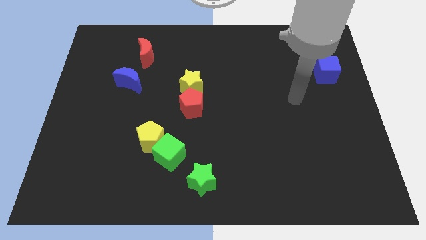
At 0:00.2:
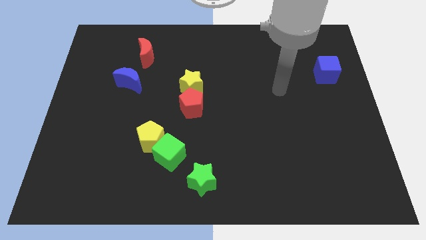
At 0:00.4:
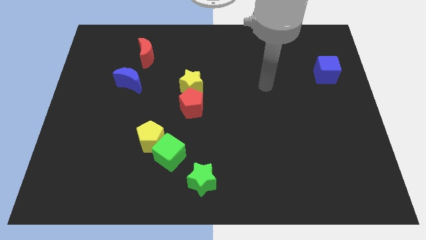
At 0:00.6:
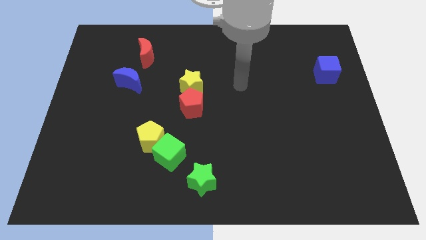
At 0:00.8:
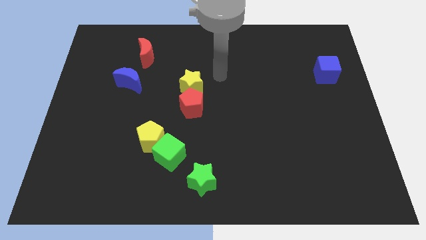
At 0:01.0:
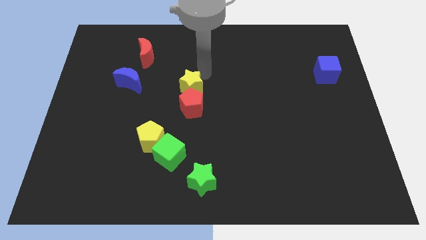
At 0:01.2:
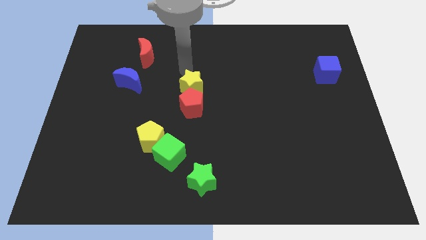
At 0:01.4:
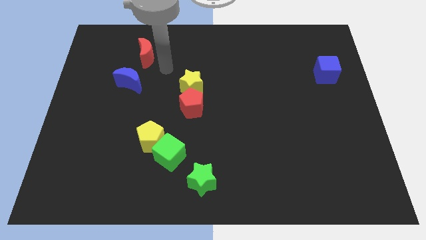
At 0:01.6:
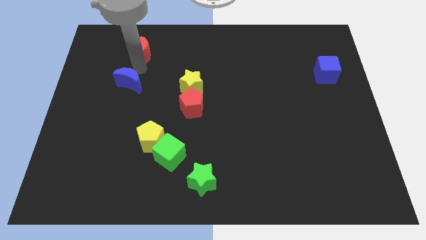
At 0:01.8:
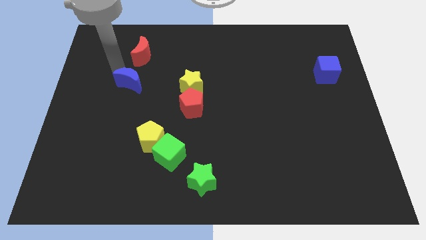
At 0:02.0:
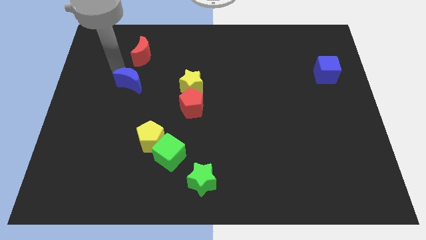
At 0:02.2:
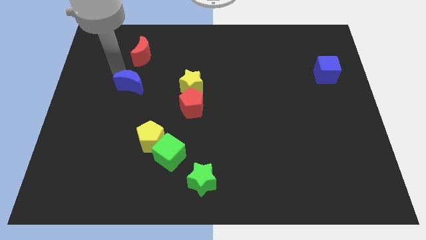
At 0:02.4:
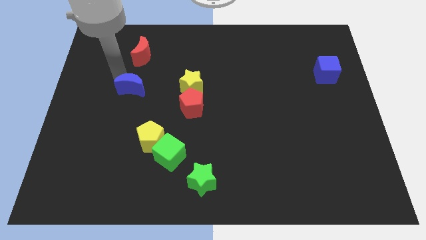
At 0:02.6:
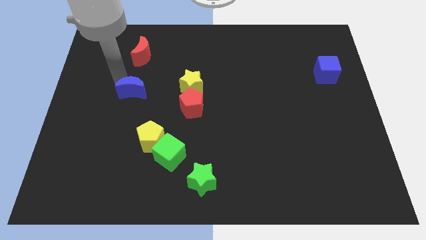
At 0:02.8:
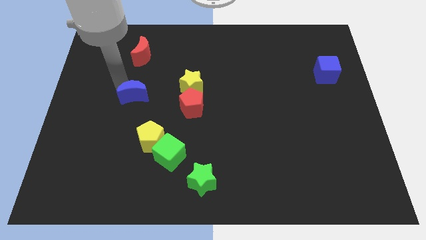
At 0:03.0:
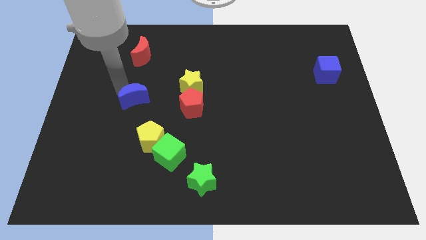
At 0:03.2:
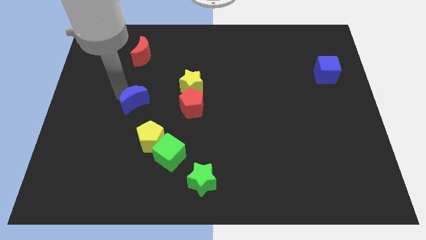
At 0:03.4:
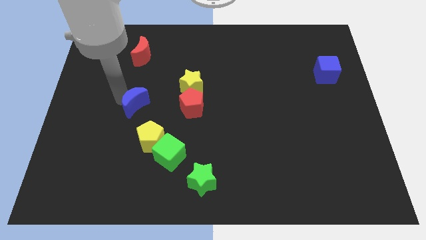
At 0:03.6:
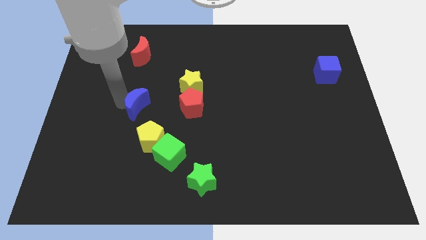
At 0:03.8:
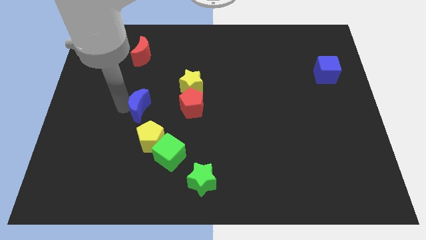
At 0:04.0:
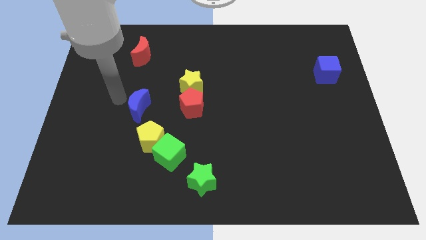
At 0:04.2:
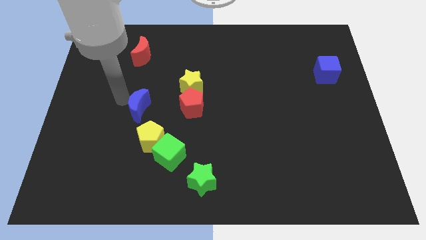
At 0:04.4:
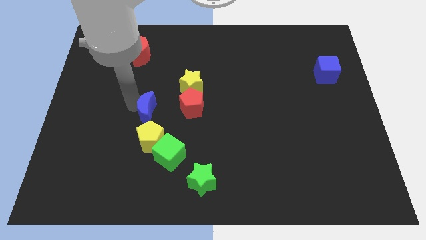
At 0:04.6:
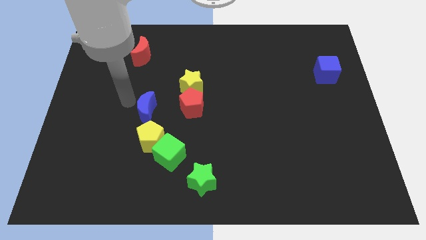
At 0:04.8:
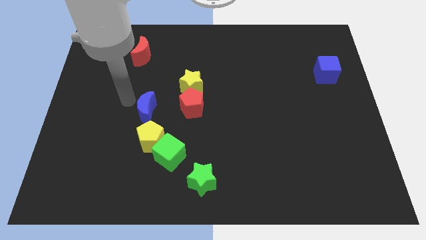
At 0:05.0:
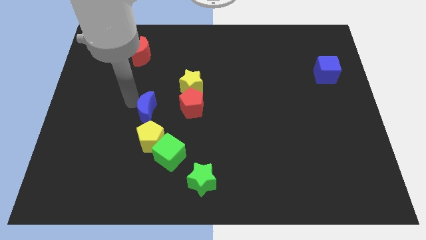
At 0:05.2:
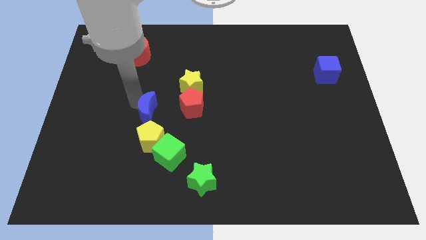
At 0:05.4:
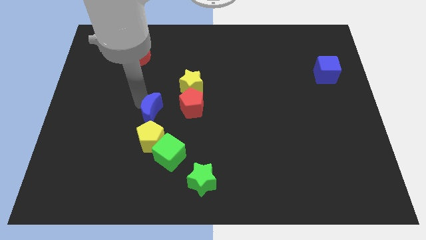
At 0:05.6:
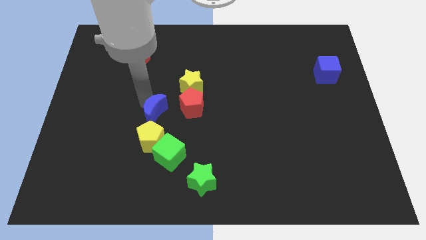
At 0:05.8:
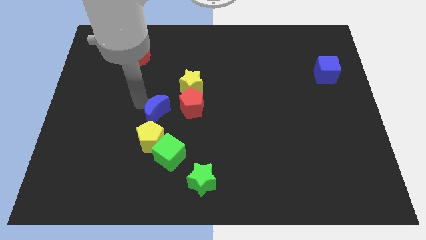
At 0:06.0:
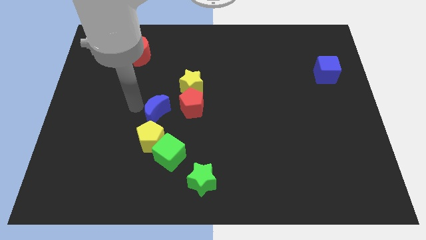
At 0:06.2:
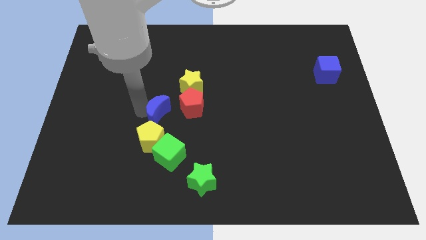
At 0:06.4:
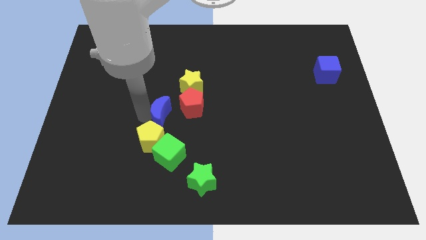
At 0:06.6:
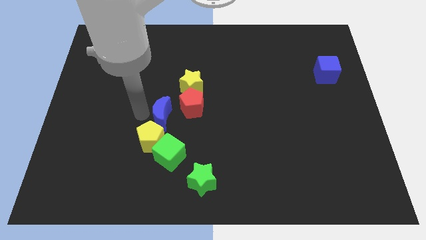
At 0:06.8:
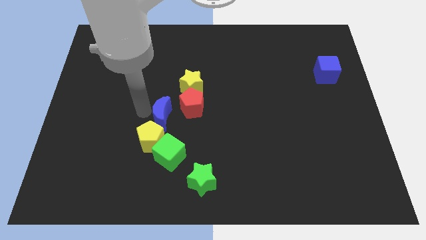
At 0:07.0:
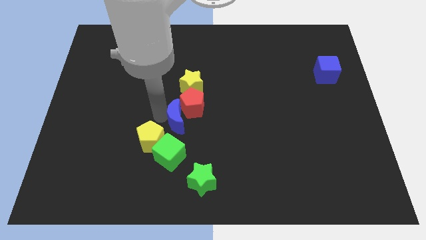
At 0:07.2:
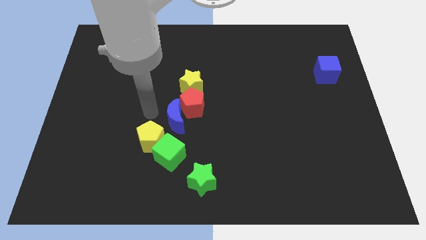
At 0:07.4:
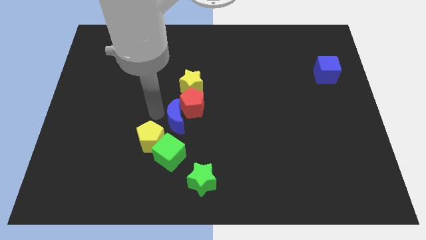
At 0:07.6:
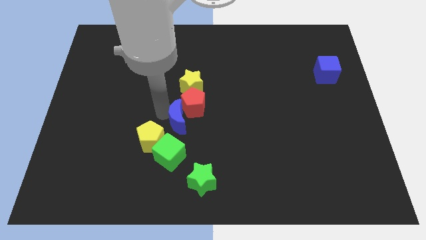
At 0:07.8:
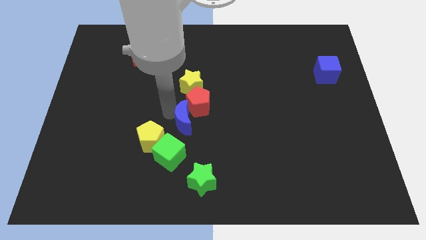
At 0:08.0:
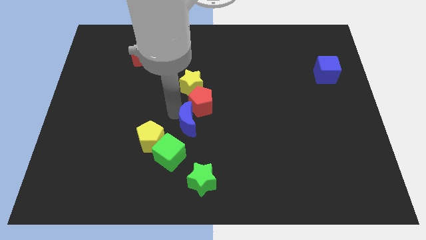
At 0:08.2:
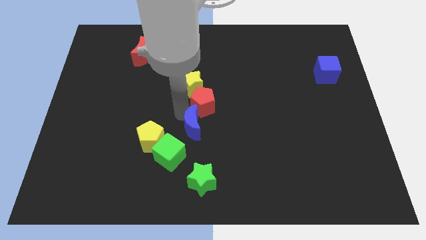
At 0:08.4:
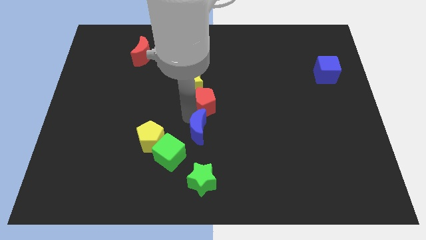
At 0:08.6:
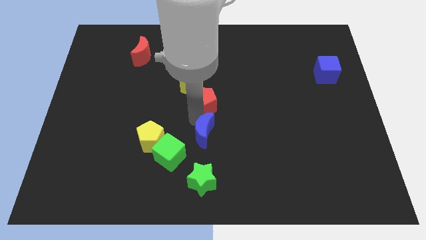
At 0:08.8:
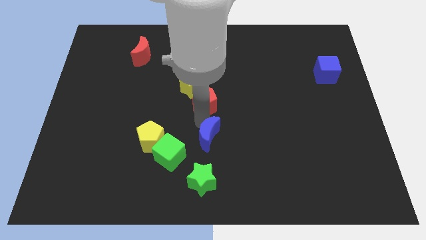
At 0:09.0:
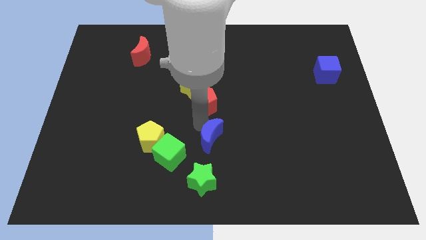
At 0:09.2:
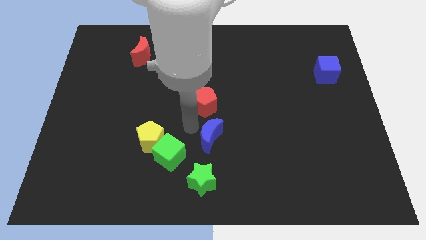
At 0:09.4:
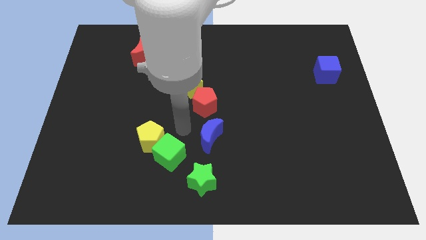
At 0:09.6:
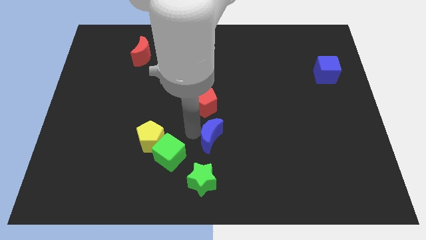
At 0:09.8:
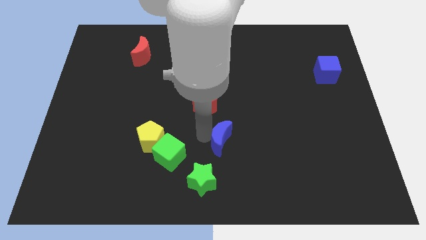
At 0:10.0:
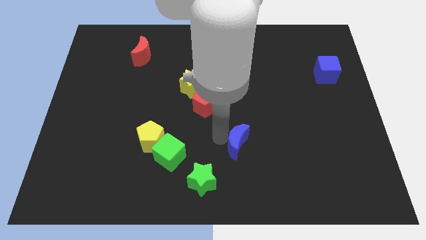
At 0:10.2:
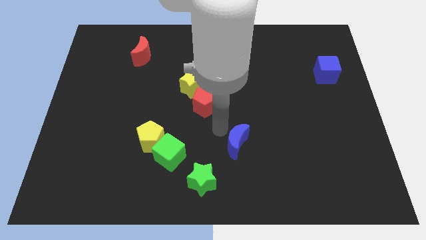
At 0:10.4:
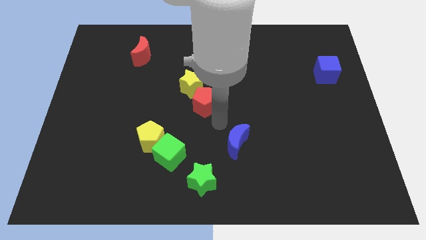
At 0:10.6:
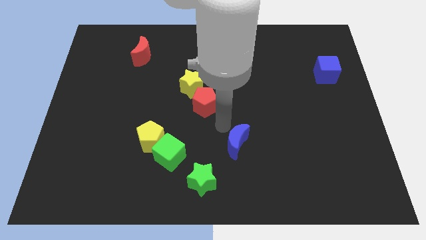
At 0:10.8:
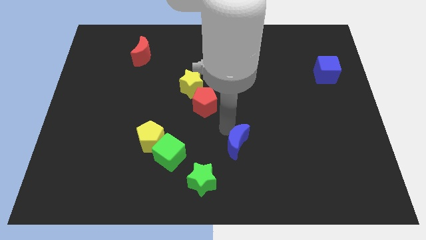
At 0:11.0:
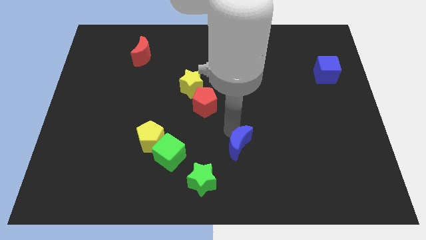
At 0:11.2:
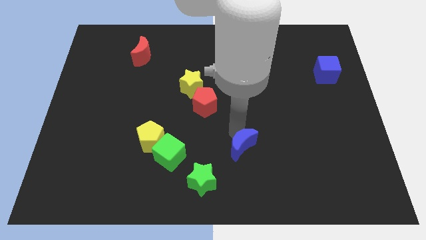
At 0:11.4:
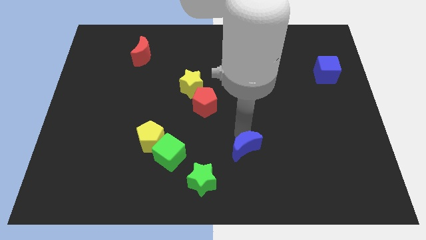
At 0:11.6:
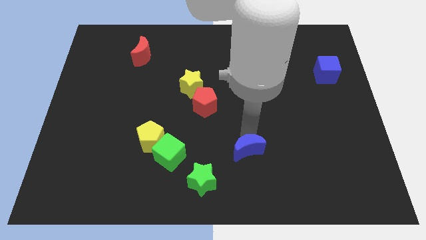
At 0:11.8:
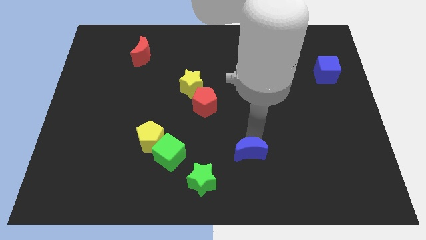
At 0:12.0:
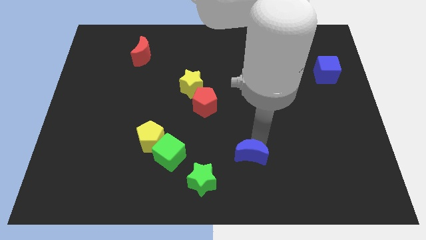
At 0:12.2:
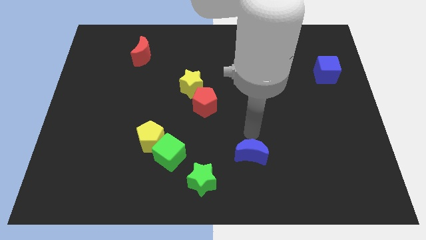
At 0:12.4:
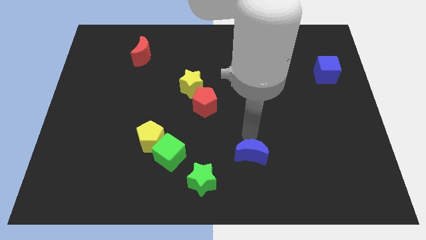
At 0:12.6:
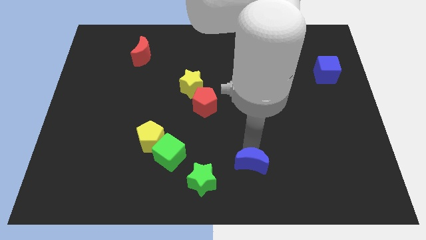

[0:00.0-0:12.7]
move the blue moon to the right side of the green star

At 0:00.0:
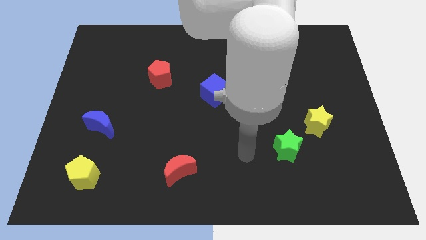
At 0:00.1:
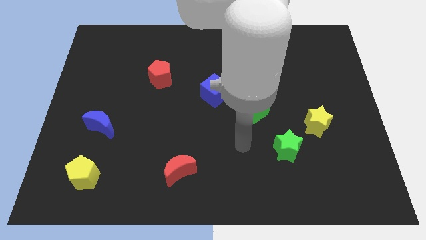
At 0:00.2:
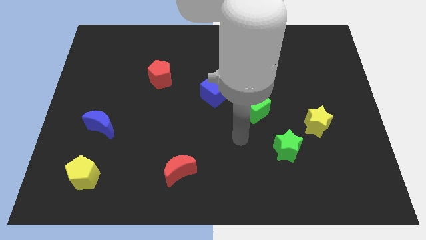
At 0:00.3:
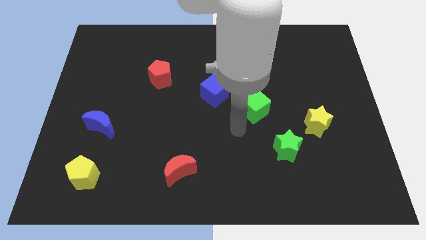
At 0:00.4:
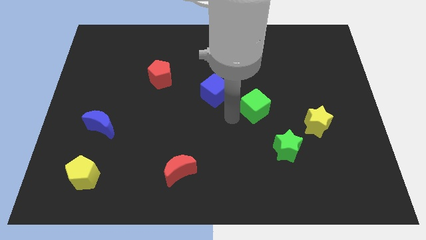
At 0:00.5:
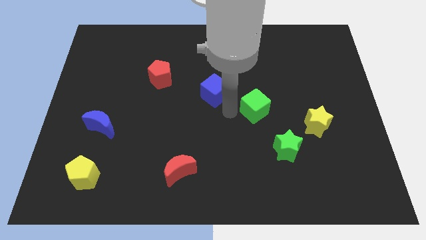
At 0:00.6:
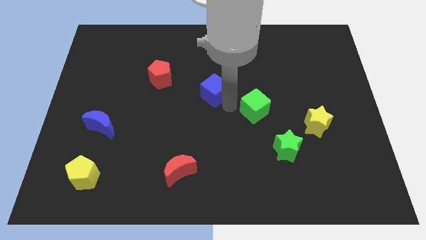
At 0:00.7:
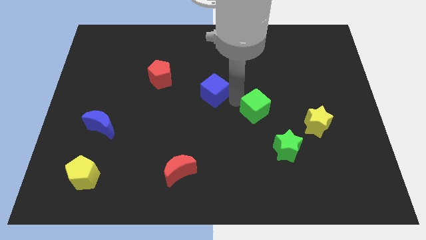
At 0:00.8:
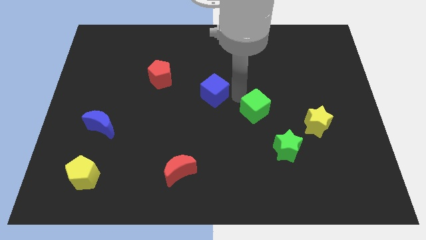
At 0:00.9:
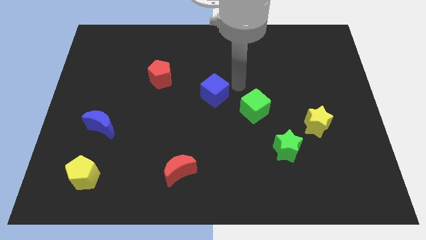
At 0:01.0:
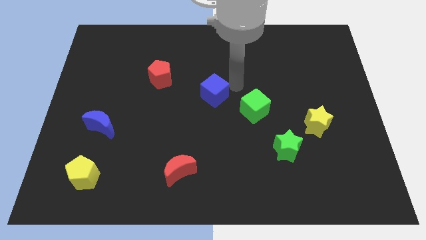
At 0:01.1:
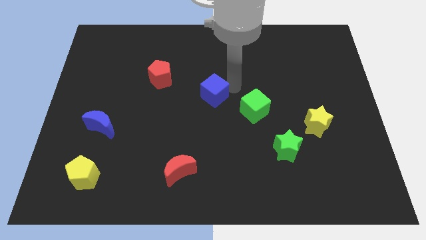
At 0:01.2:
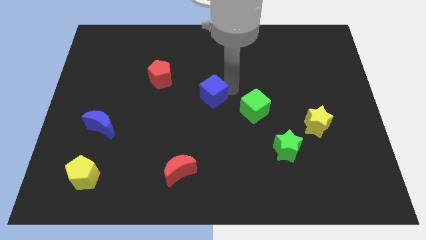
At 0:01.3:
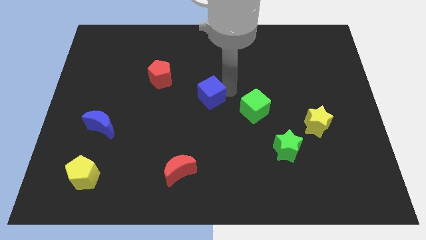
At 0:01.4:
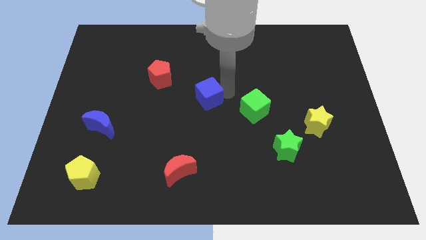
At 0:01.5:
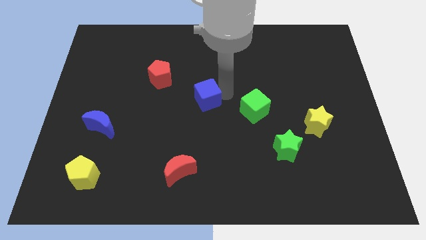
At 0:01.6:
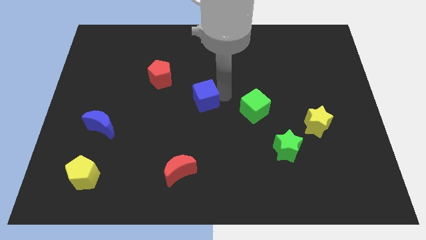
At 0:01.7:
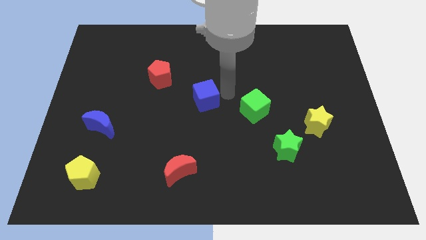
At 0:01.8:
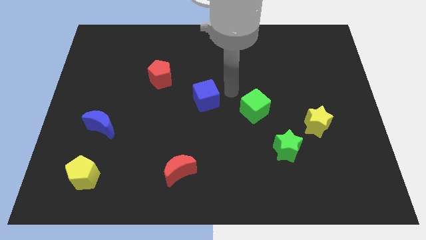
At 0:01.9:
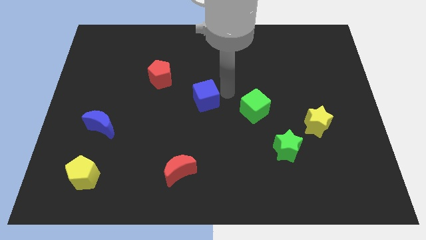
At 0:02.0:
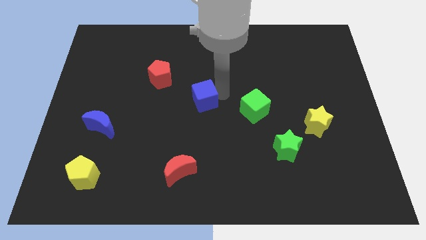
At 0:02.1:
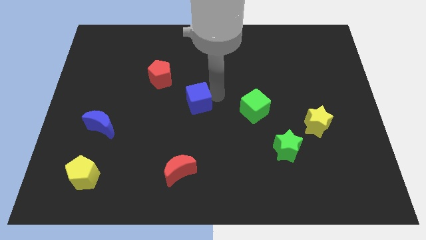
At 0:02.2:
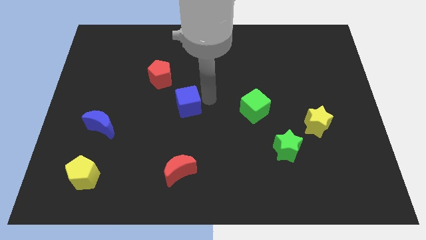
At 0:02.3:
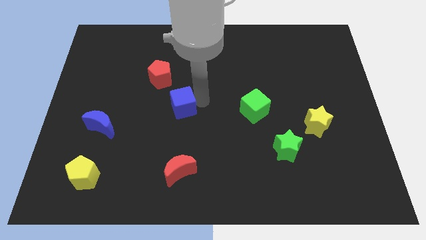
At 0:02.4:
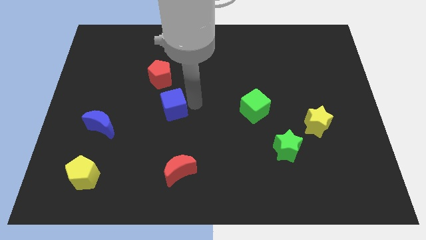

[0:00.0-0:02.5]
move the blue cube to the bottom of the red pentagon
